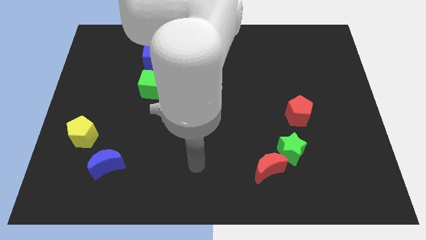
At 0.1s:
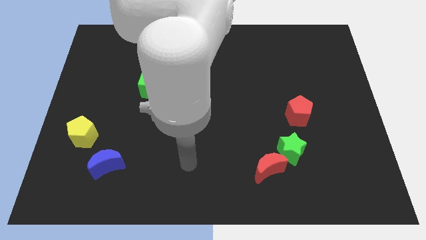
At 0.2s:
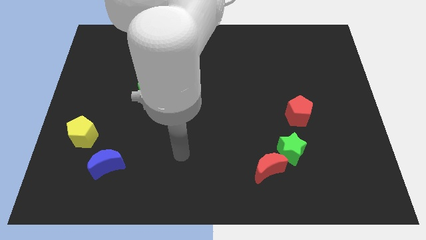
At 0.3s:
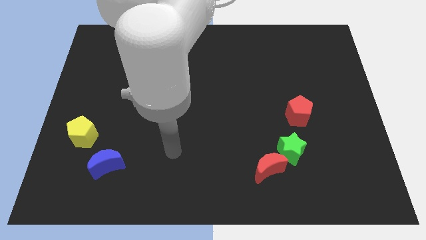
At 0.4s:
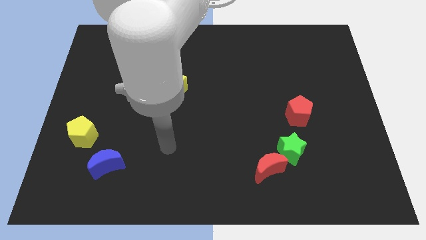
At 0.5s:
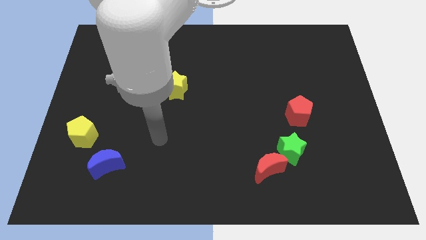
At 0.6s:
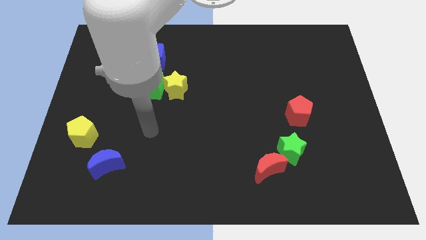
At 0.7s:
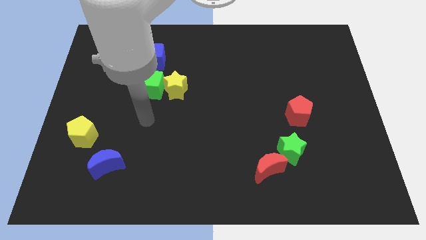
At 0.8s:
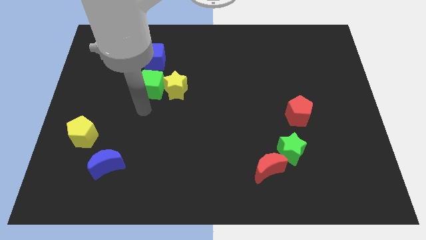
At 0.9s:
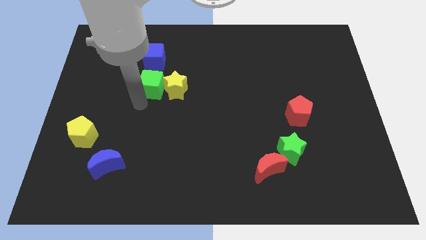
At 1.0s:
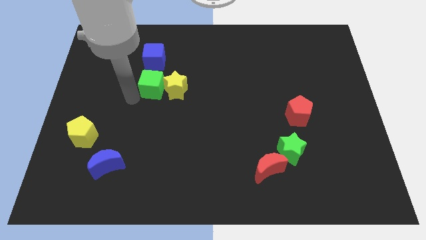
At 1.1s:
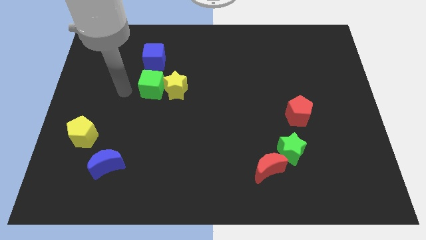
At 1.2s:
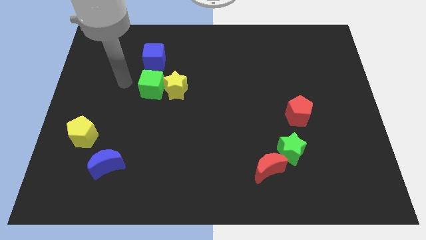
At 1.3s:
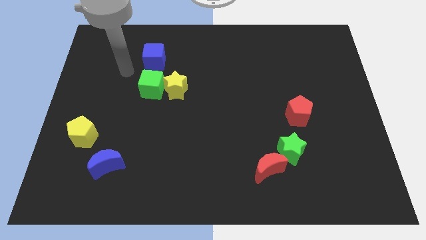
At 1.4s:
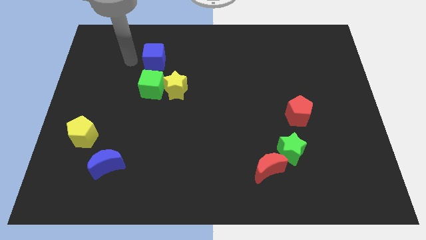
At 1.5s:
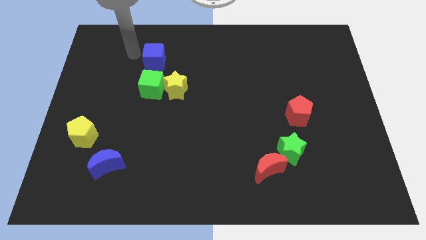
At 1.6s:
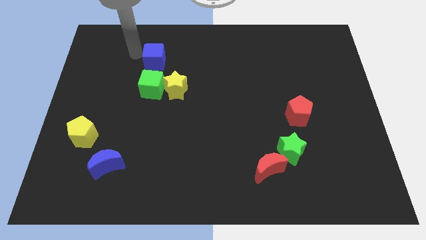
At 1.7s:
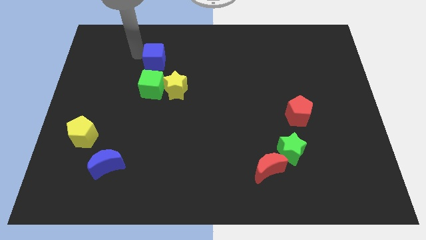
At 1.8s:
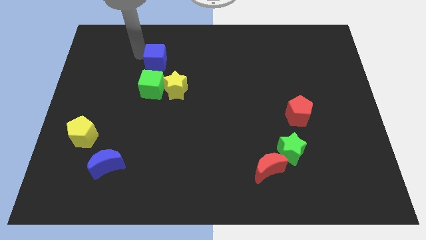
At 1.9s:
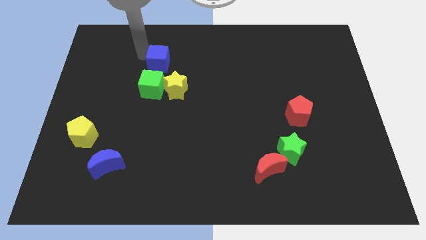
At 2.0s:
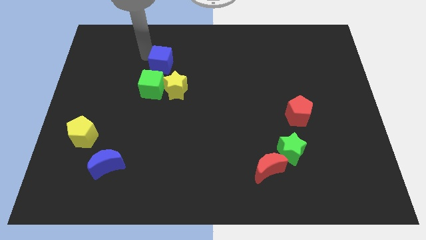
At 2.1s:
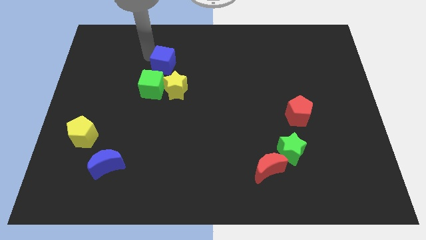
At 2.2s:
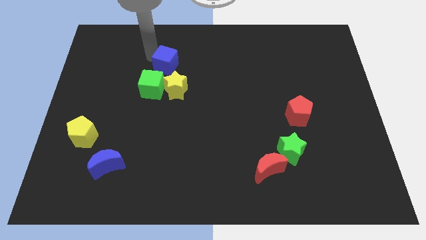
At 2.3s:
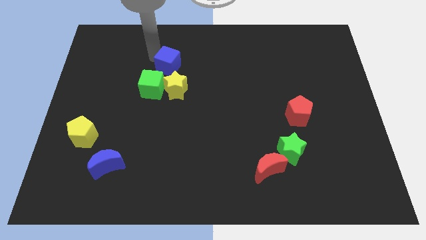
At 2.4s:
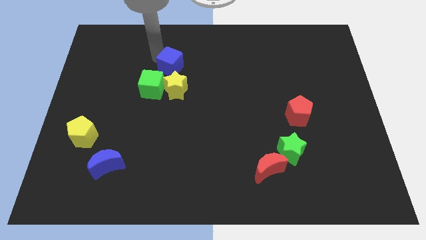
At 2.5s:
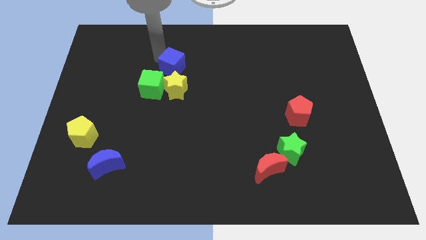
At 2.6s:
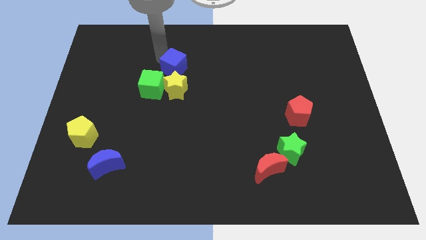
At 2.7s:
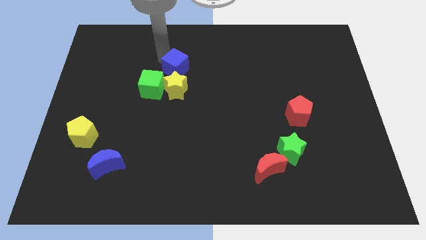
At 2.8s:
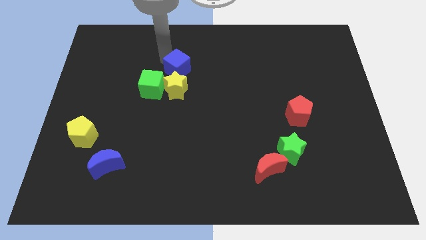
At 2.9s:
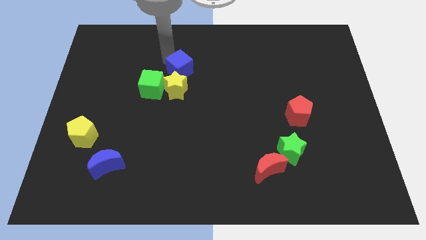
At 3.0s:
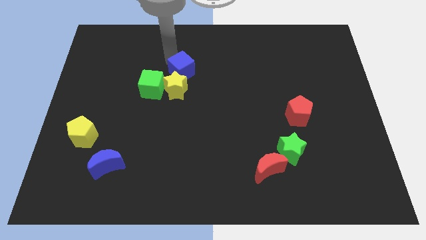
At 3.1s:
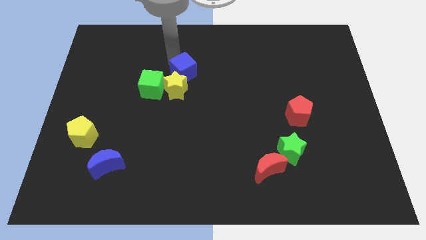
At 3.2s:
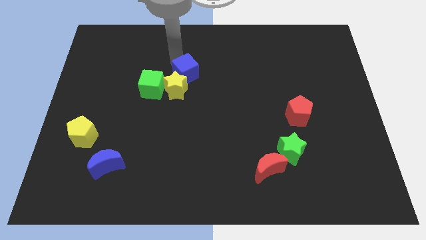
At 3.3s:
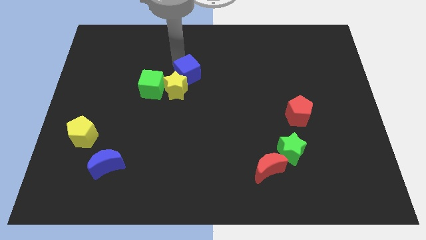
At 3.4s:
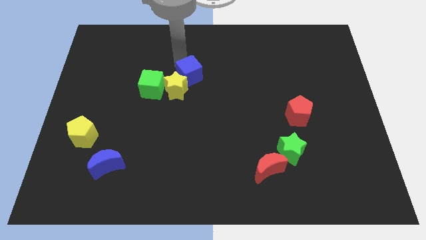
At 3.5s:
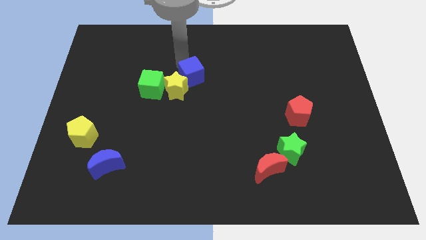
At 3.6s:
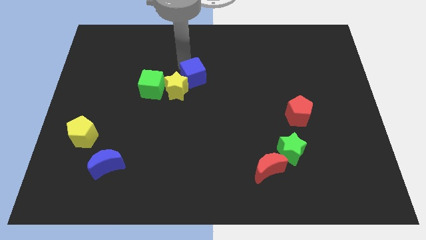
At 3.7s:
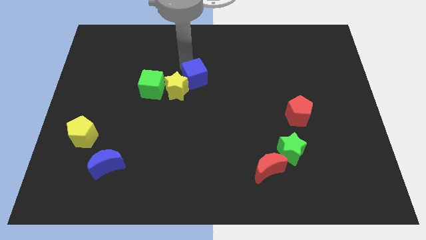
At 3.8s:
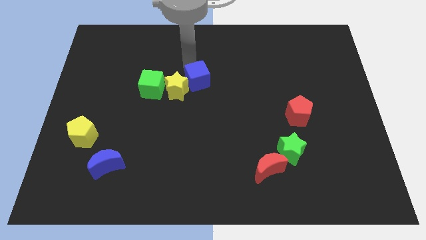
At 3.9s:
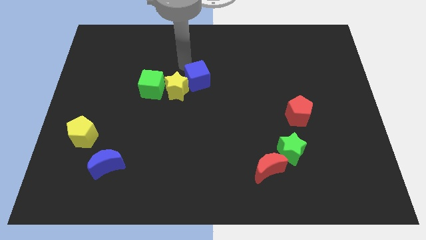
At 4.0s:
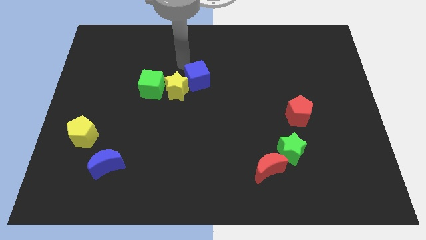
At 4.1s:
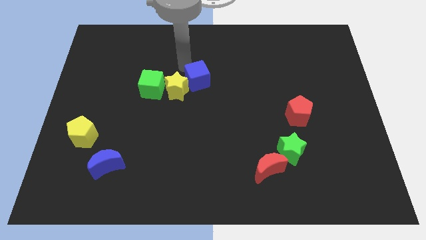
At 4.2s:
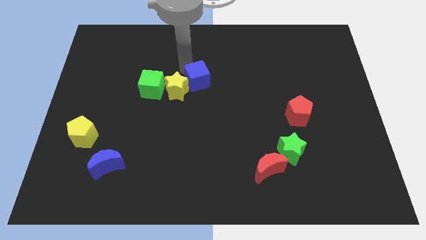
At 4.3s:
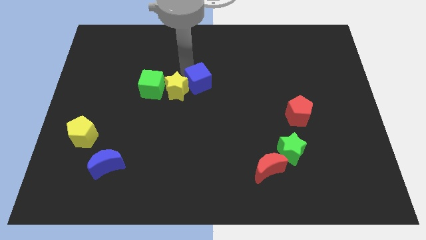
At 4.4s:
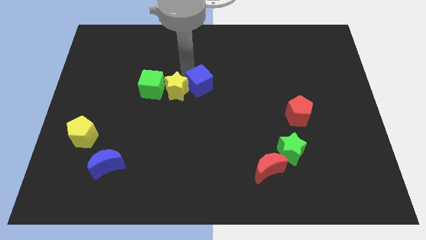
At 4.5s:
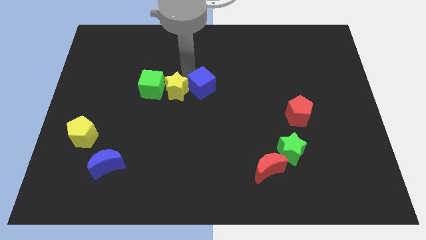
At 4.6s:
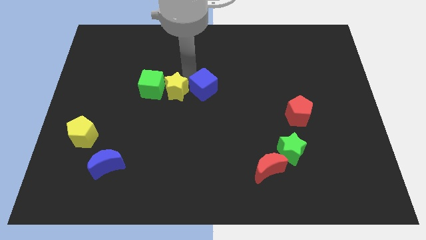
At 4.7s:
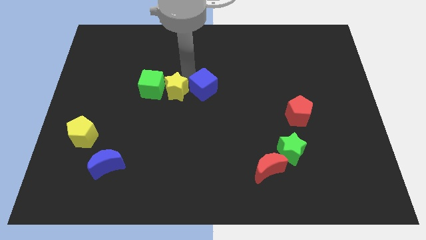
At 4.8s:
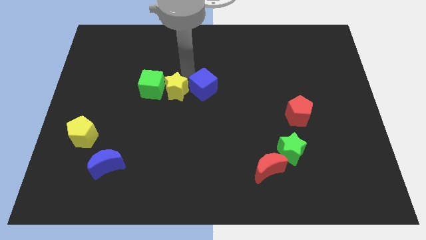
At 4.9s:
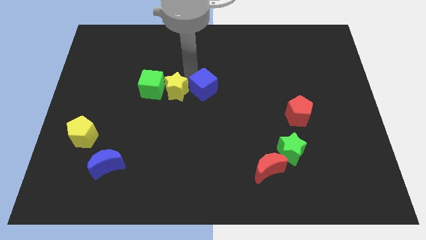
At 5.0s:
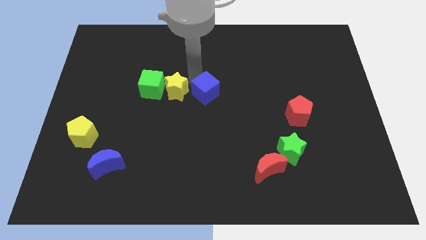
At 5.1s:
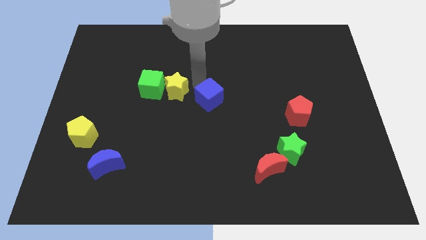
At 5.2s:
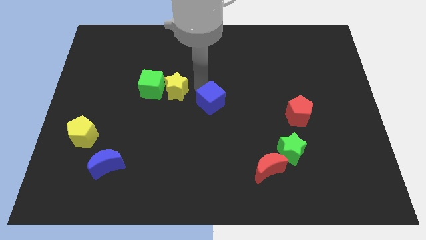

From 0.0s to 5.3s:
move the blue cube down and to the right diagonally

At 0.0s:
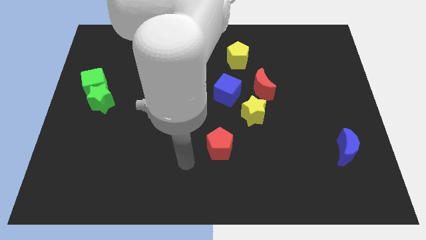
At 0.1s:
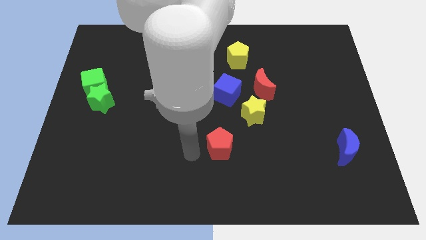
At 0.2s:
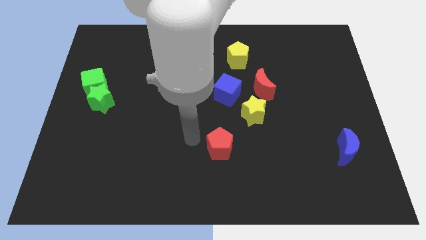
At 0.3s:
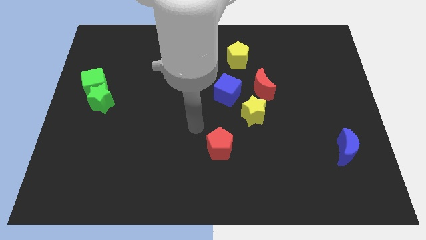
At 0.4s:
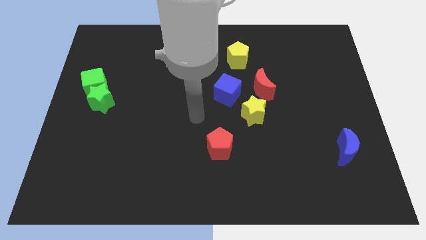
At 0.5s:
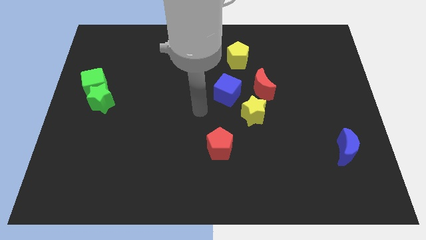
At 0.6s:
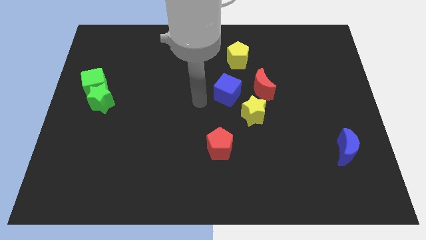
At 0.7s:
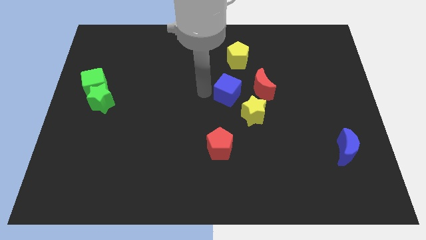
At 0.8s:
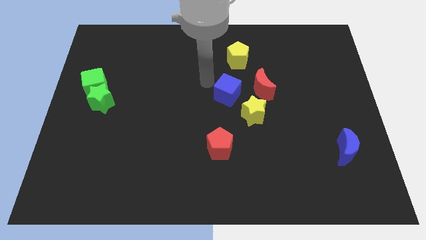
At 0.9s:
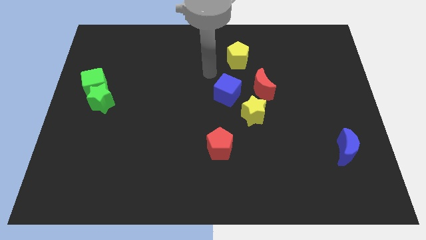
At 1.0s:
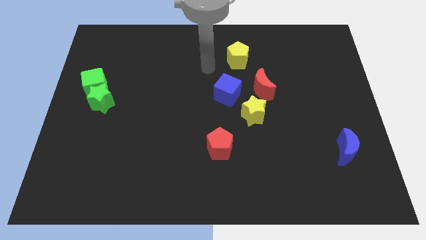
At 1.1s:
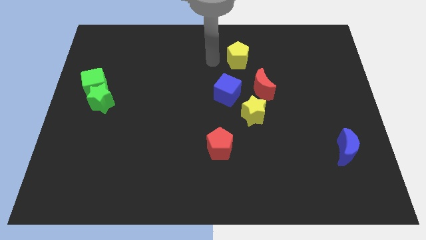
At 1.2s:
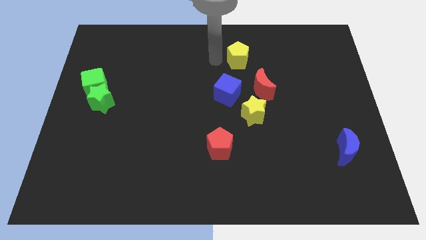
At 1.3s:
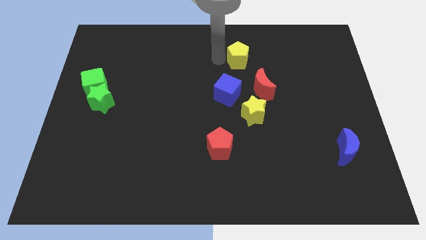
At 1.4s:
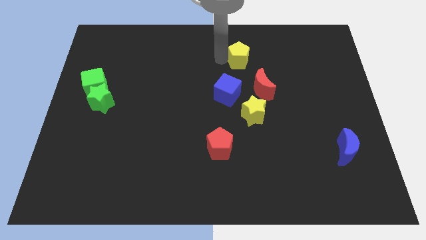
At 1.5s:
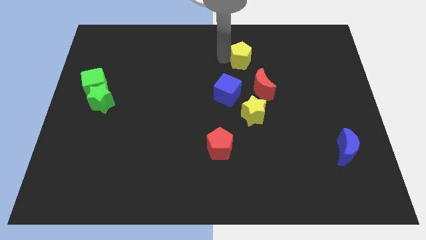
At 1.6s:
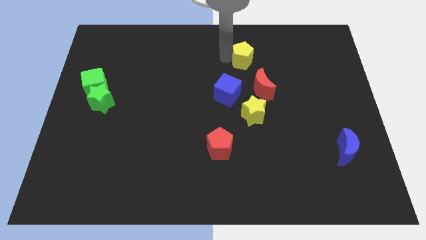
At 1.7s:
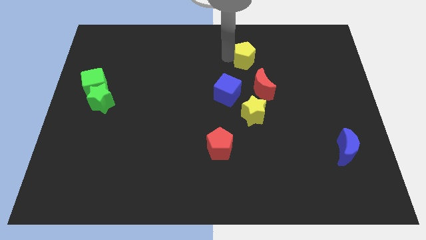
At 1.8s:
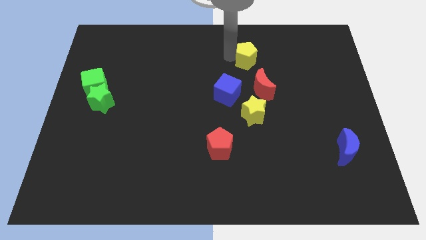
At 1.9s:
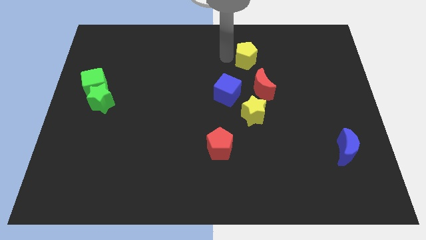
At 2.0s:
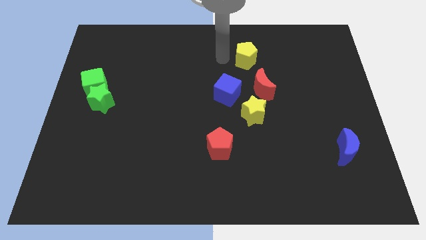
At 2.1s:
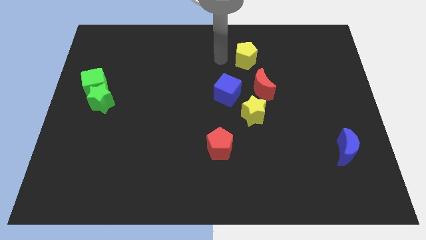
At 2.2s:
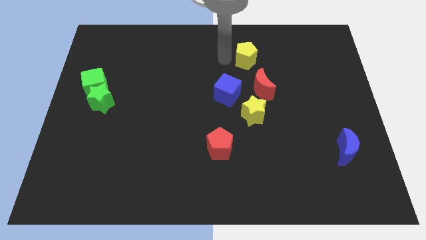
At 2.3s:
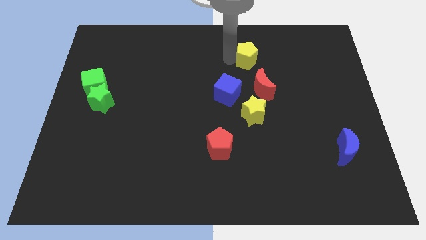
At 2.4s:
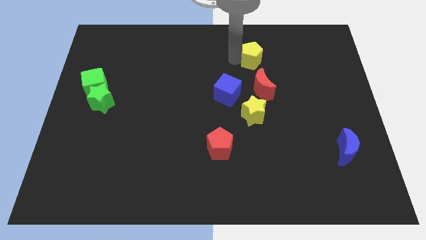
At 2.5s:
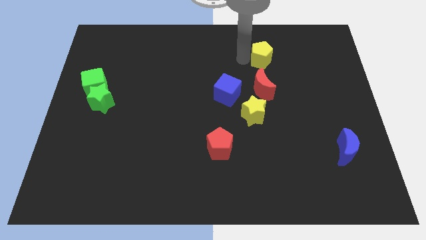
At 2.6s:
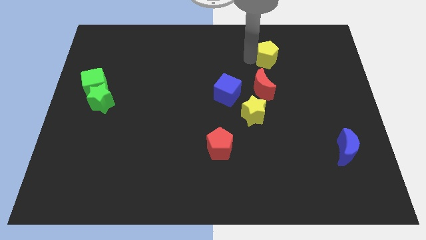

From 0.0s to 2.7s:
move the yellow pentagon slightly right

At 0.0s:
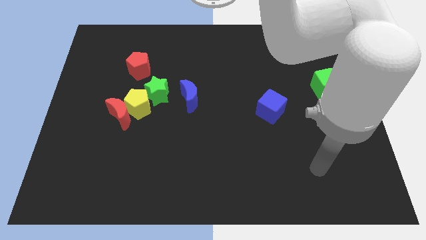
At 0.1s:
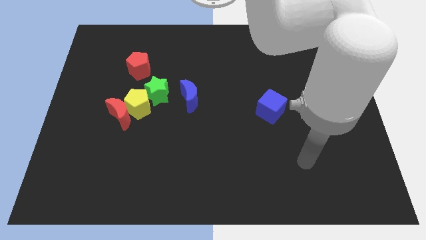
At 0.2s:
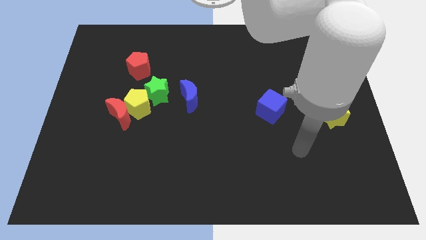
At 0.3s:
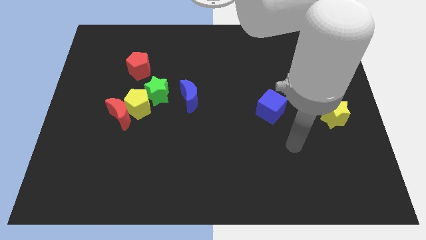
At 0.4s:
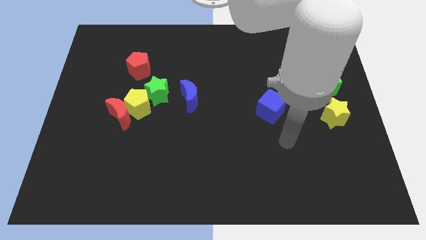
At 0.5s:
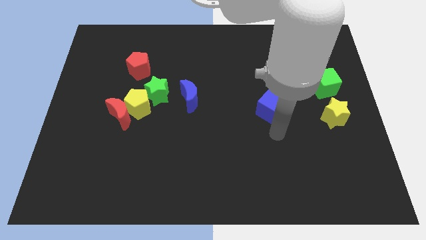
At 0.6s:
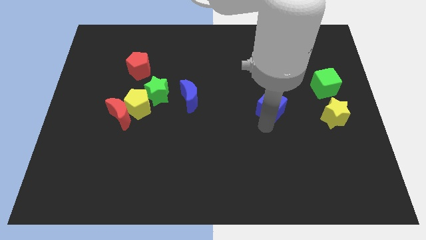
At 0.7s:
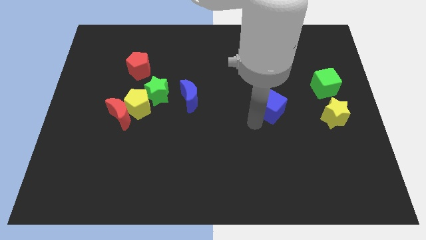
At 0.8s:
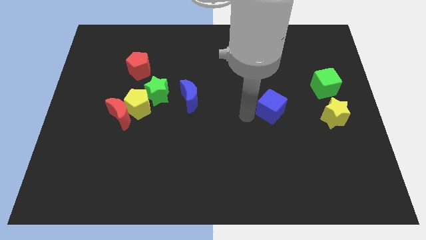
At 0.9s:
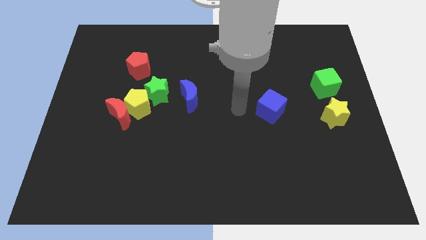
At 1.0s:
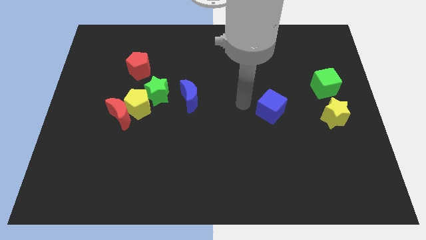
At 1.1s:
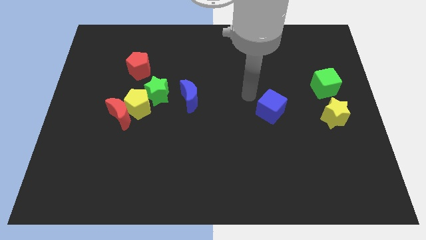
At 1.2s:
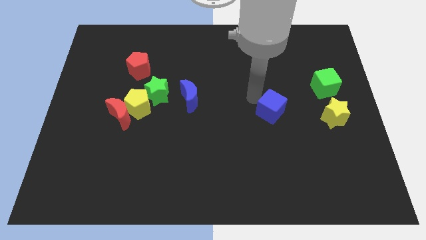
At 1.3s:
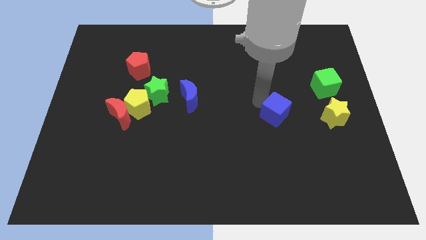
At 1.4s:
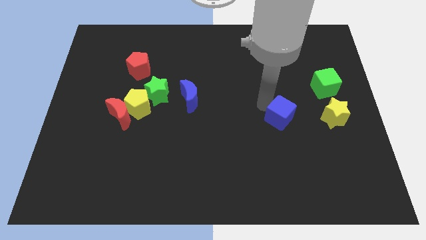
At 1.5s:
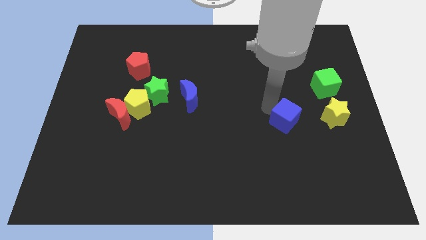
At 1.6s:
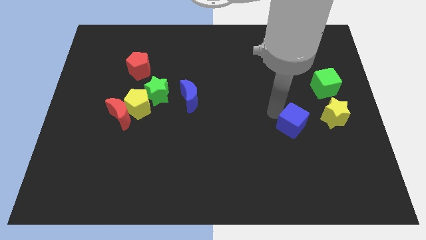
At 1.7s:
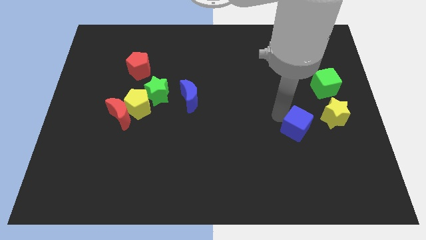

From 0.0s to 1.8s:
slightly move the blue cube down and then to the right
